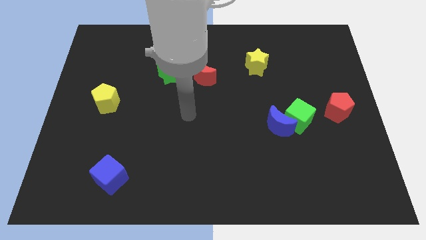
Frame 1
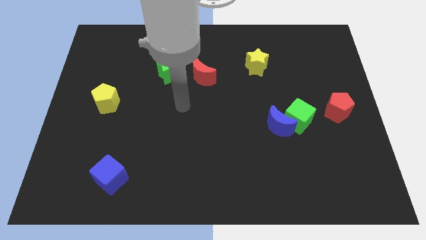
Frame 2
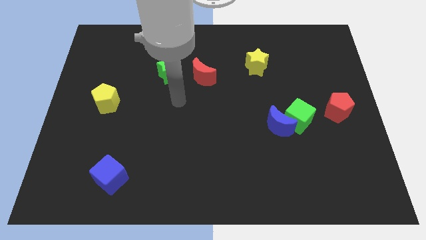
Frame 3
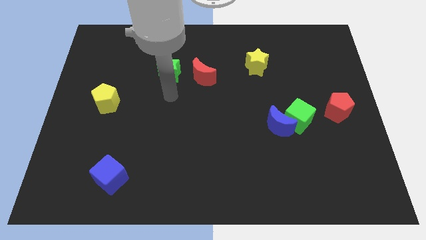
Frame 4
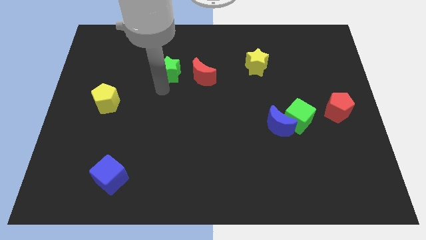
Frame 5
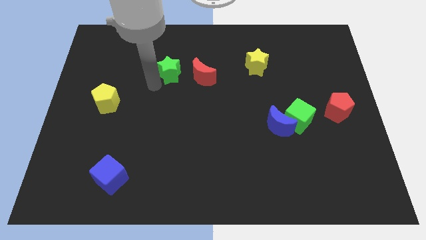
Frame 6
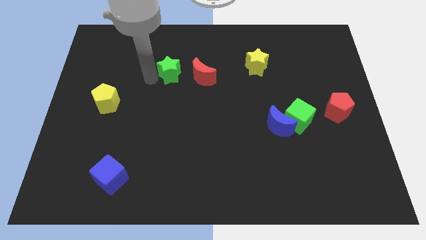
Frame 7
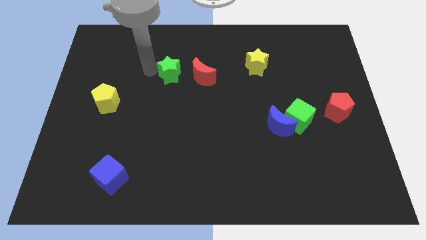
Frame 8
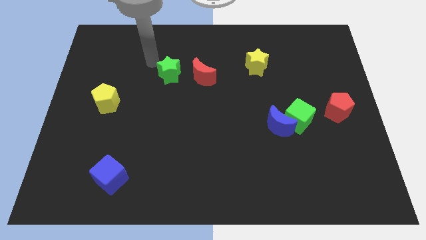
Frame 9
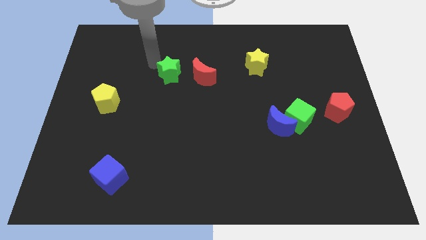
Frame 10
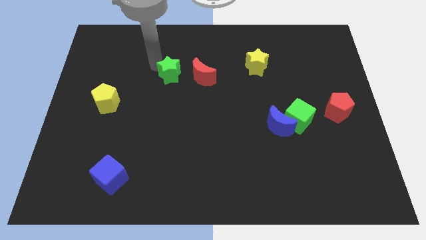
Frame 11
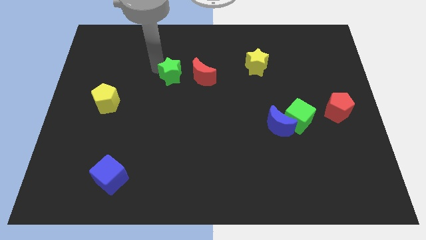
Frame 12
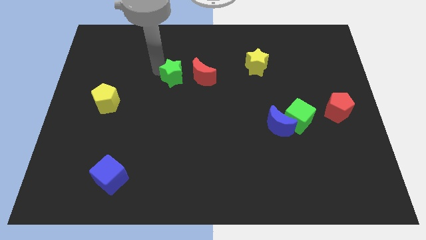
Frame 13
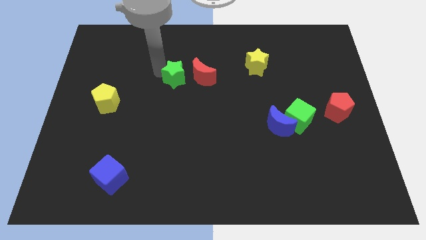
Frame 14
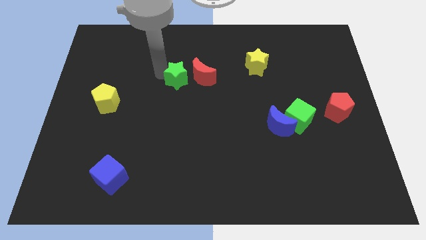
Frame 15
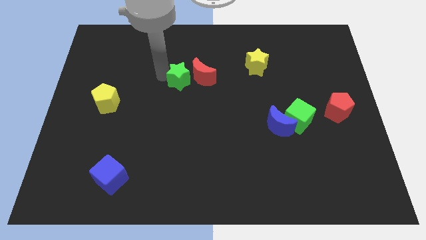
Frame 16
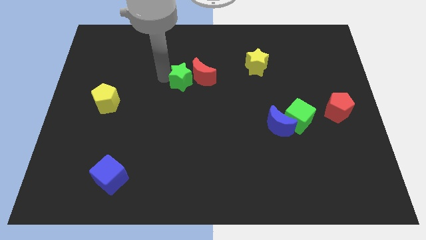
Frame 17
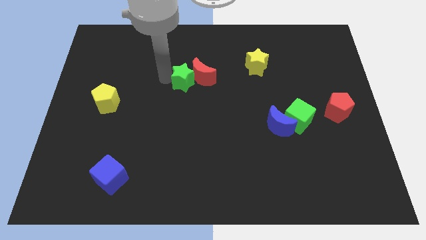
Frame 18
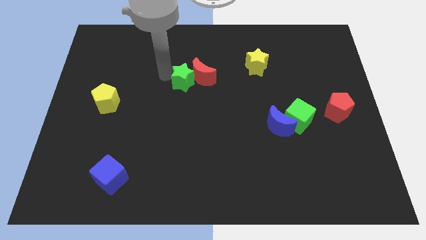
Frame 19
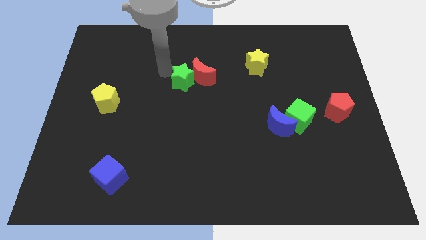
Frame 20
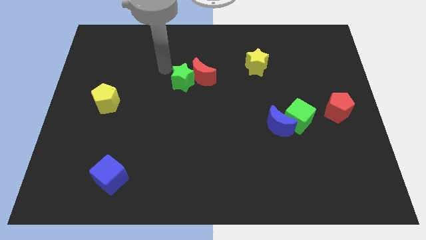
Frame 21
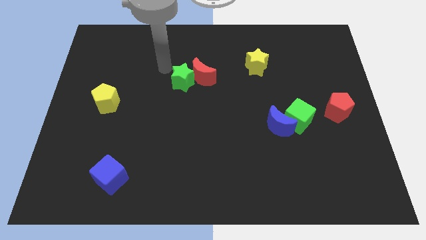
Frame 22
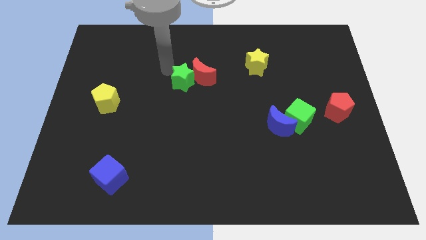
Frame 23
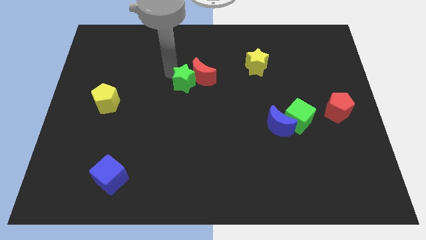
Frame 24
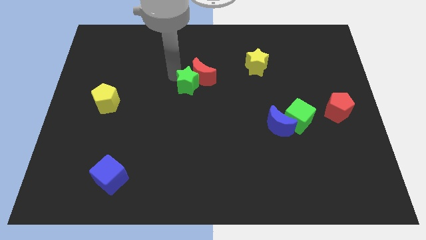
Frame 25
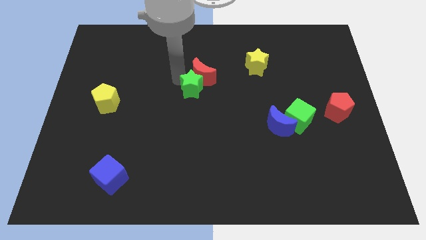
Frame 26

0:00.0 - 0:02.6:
push the green star a little downwards and to the right

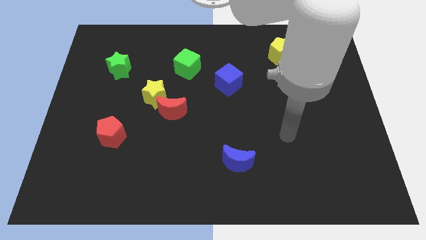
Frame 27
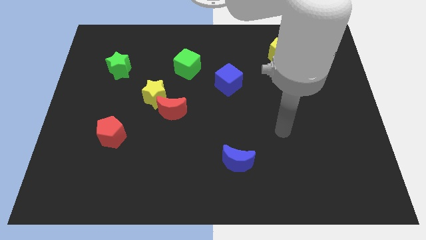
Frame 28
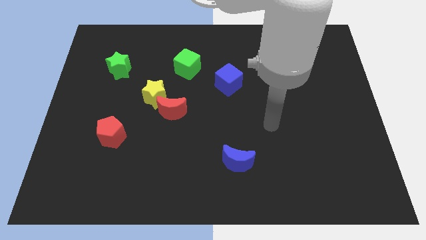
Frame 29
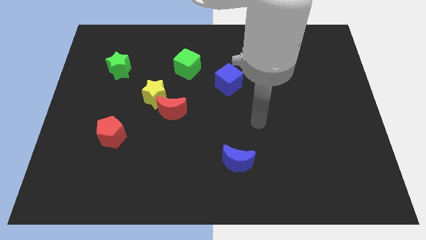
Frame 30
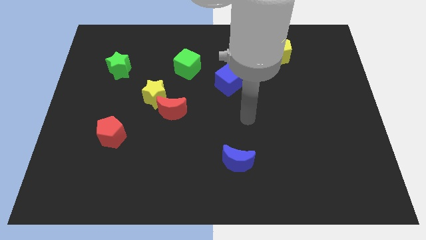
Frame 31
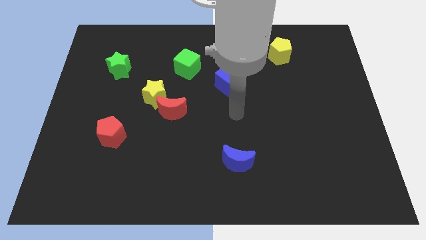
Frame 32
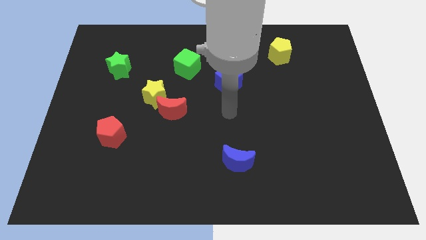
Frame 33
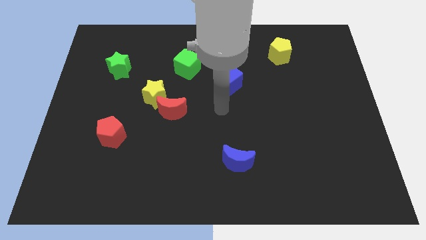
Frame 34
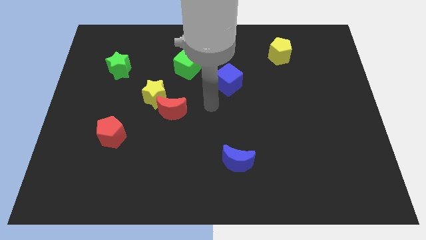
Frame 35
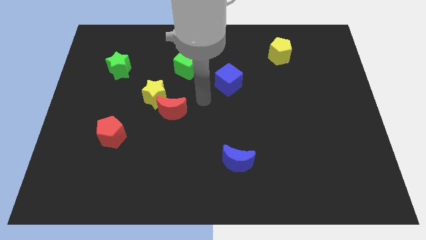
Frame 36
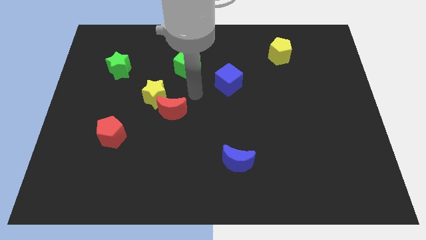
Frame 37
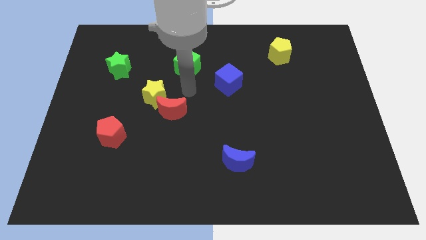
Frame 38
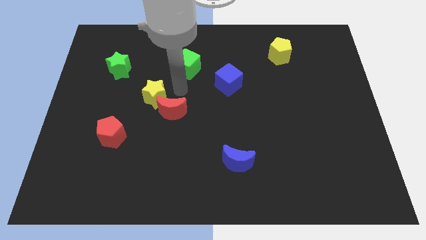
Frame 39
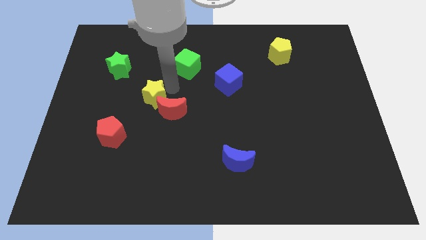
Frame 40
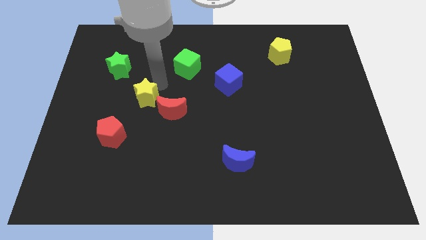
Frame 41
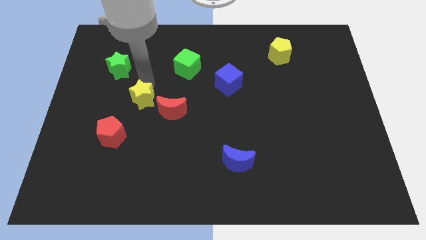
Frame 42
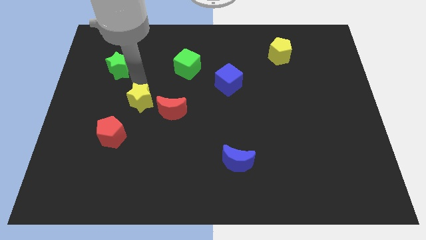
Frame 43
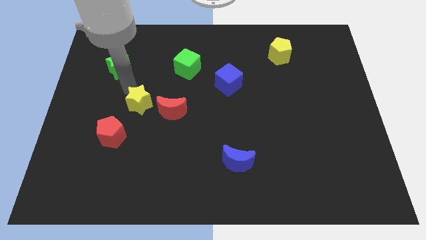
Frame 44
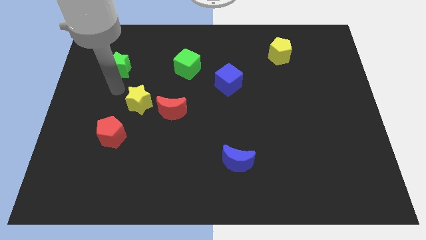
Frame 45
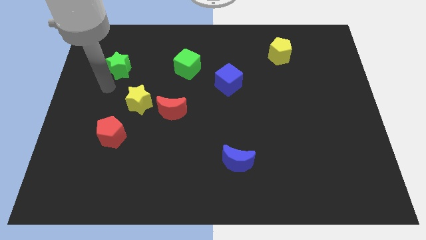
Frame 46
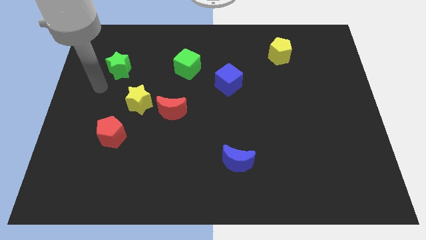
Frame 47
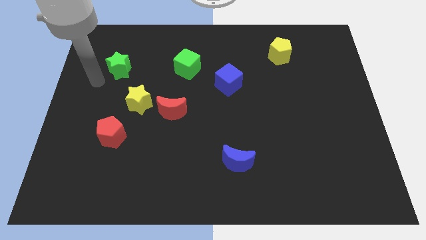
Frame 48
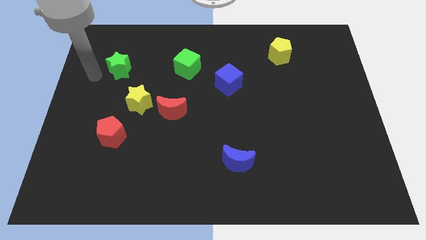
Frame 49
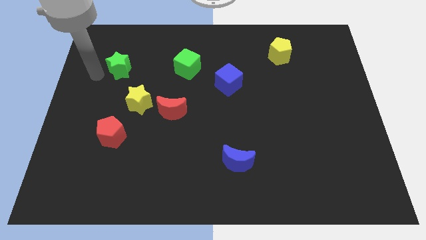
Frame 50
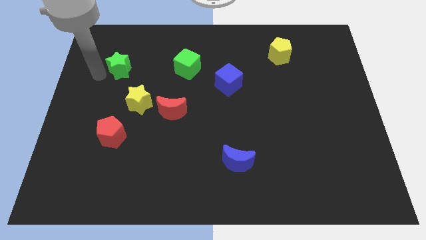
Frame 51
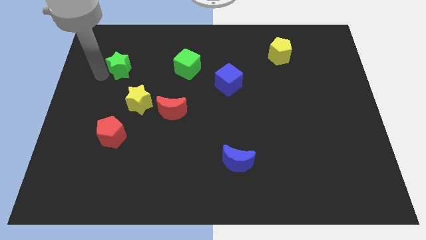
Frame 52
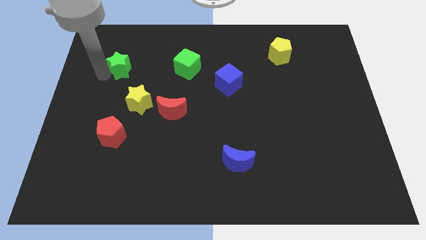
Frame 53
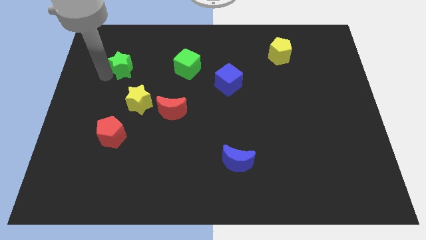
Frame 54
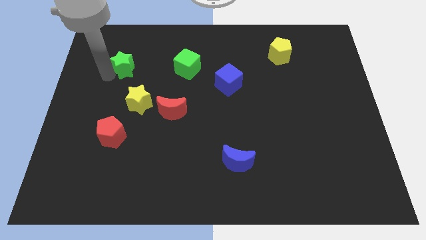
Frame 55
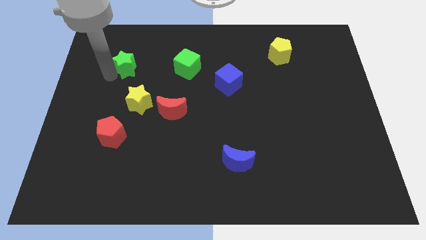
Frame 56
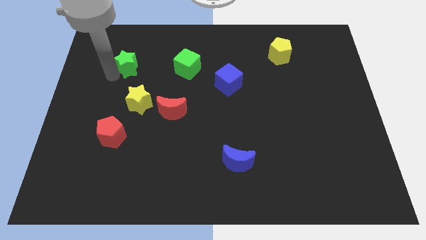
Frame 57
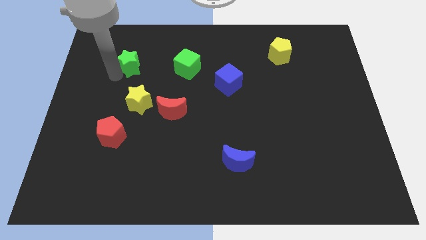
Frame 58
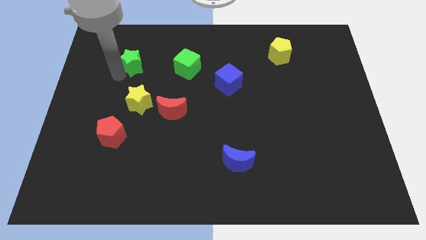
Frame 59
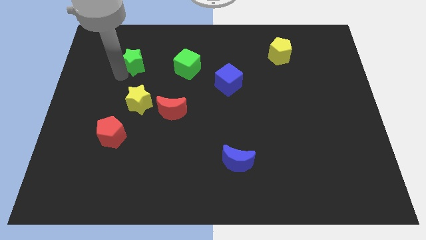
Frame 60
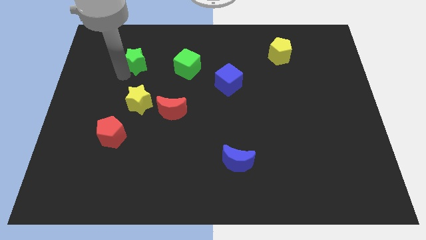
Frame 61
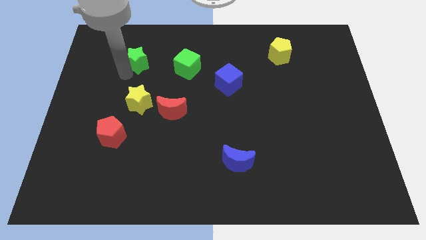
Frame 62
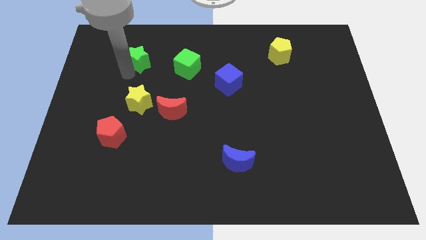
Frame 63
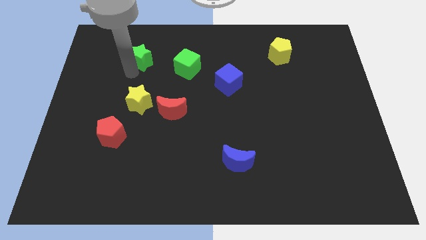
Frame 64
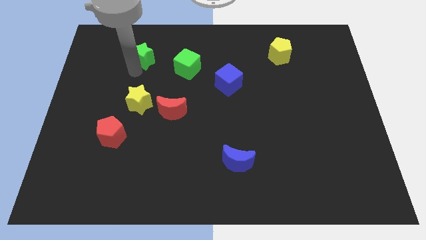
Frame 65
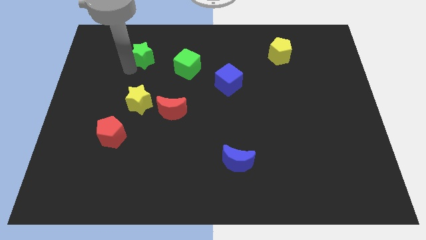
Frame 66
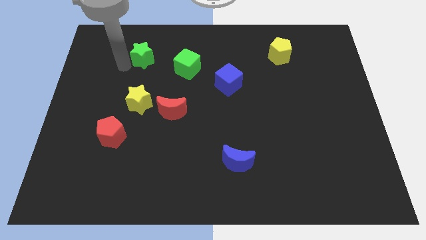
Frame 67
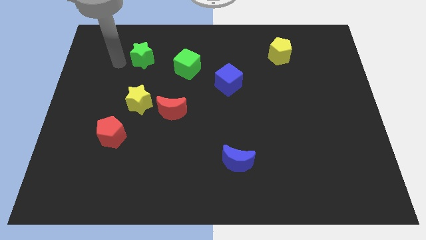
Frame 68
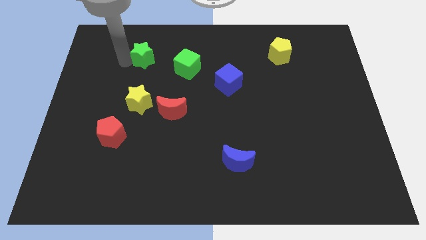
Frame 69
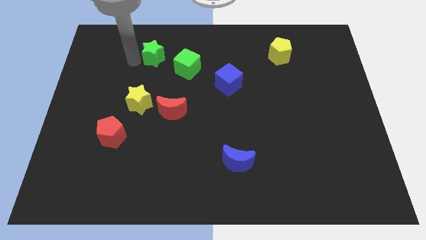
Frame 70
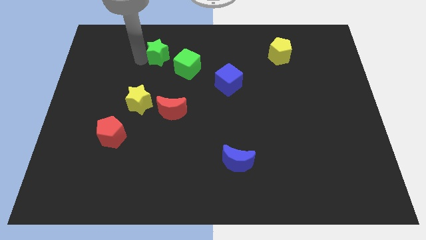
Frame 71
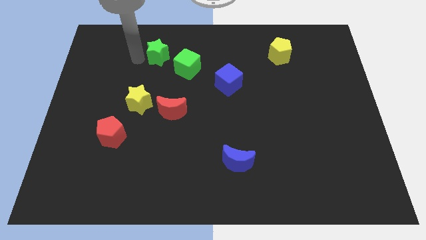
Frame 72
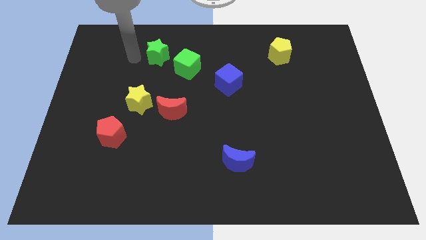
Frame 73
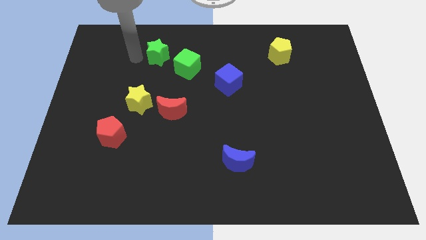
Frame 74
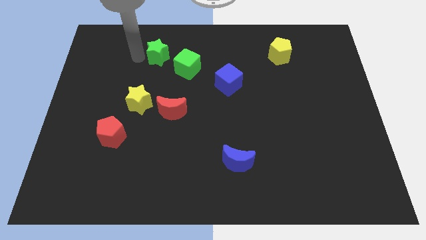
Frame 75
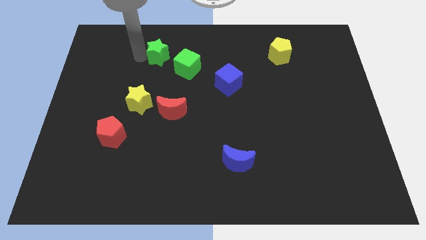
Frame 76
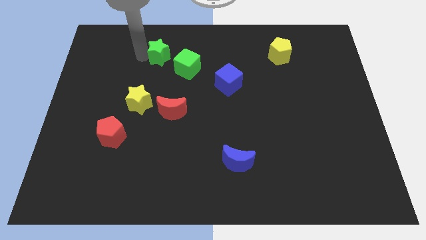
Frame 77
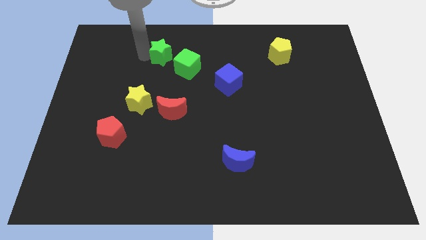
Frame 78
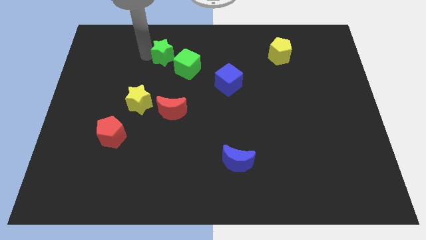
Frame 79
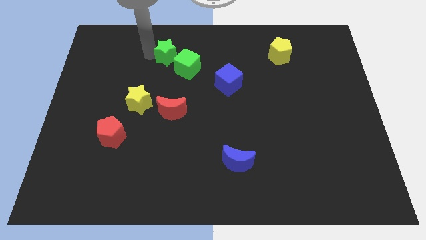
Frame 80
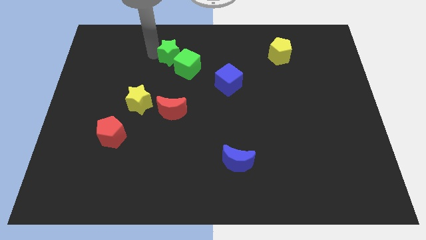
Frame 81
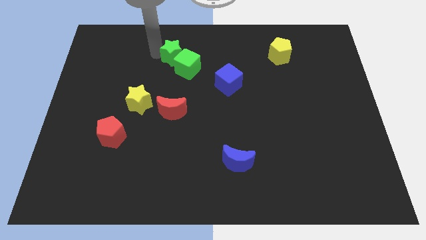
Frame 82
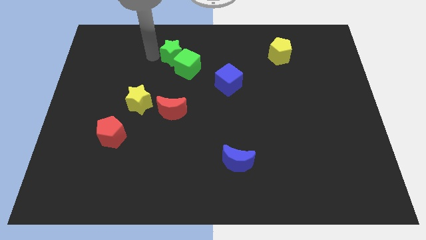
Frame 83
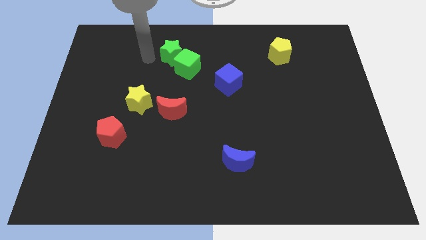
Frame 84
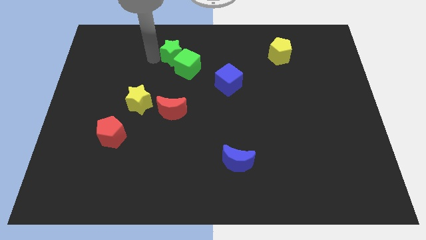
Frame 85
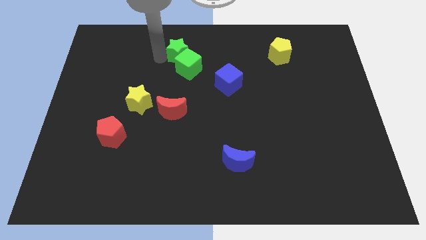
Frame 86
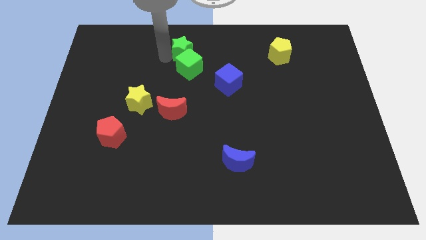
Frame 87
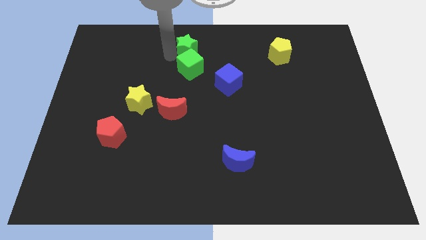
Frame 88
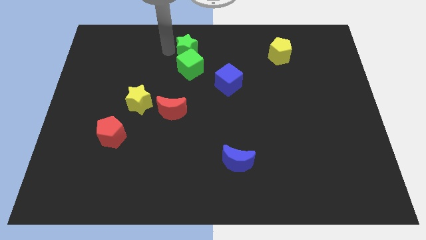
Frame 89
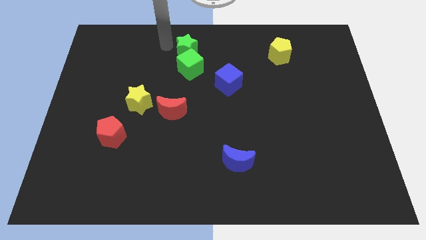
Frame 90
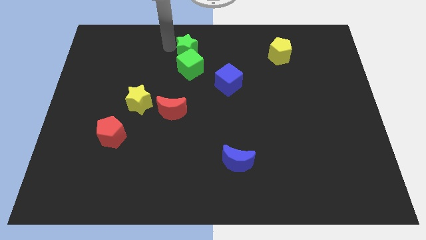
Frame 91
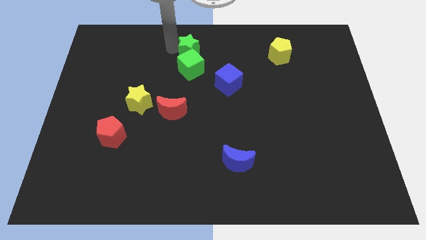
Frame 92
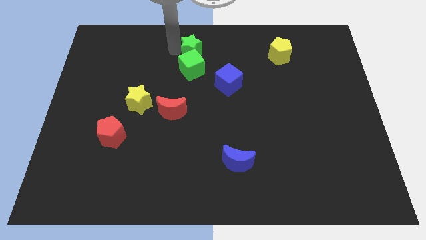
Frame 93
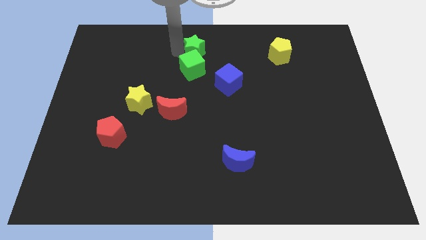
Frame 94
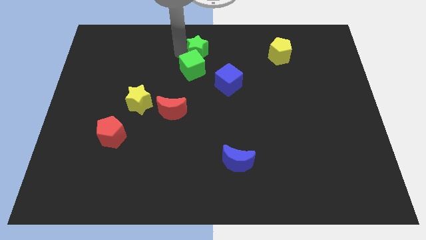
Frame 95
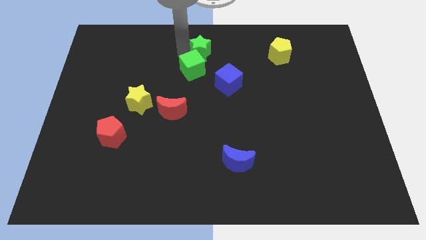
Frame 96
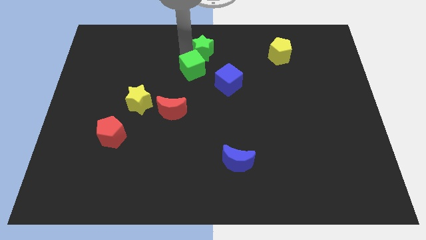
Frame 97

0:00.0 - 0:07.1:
slide the green star to the right
